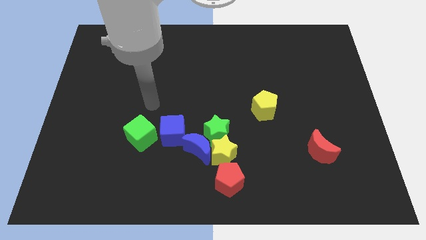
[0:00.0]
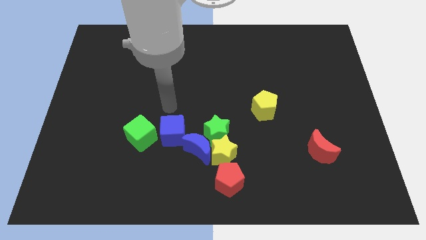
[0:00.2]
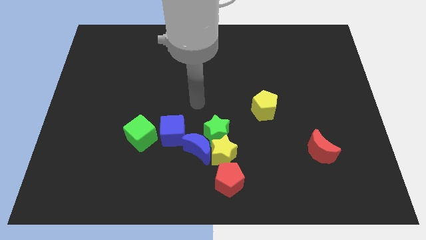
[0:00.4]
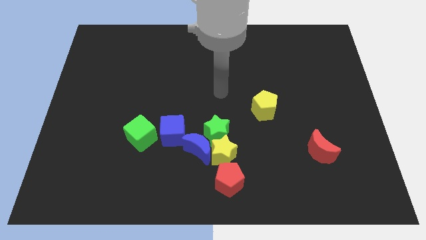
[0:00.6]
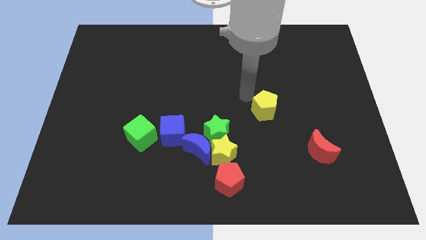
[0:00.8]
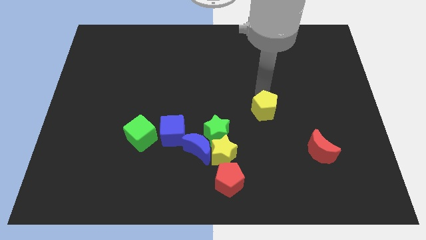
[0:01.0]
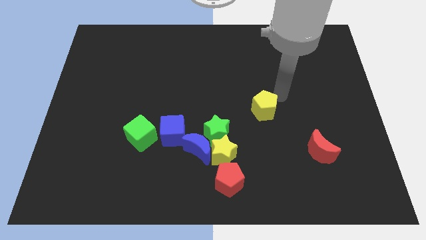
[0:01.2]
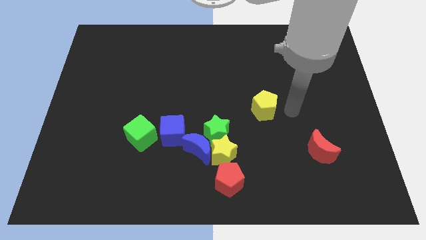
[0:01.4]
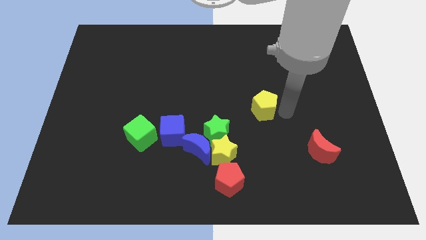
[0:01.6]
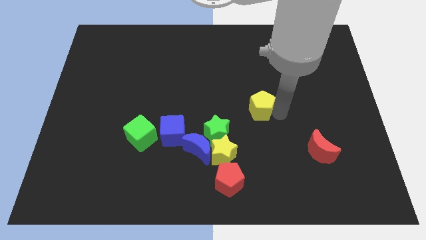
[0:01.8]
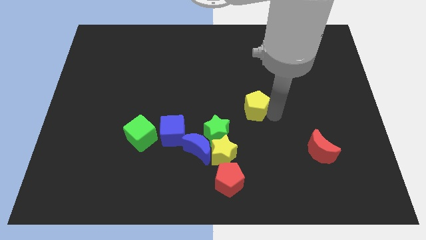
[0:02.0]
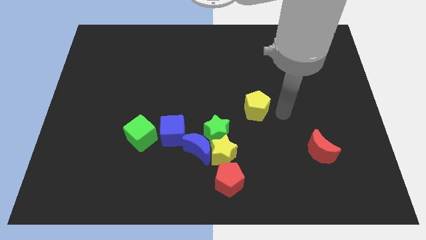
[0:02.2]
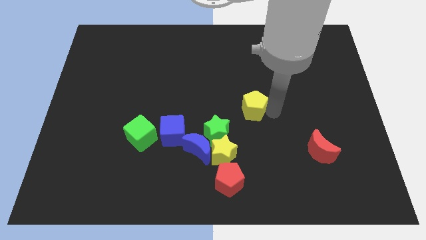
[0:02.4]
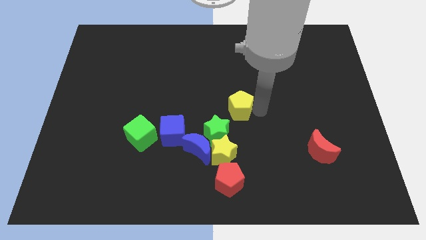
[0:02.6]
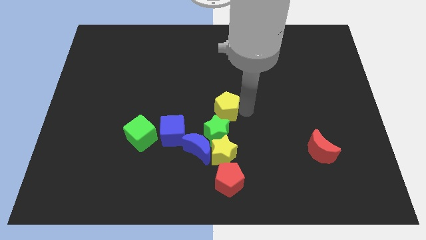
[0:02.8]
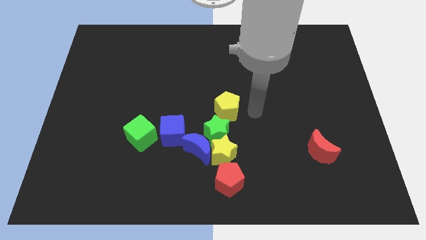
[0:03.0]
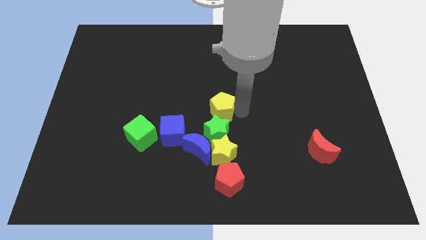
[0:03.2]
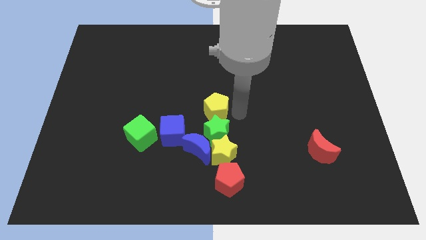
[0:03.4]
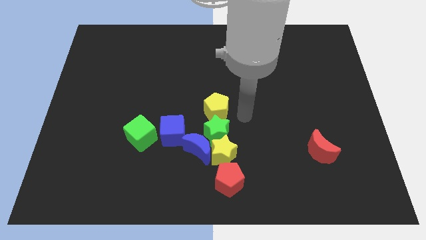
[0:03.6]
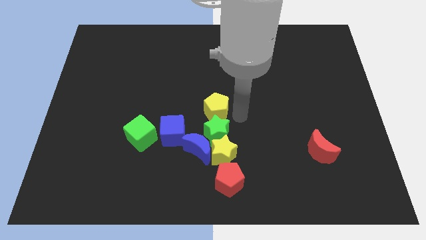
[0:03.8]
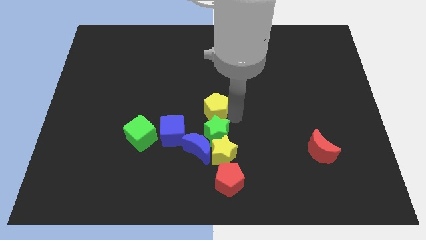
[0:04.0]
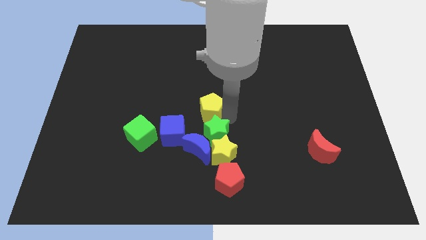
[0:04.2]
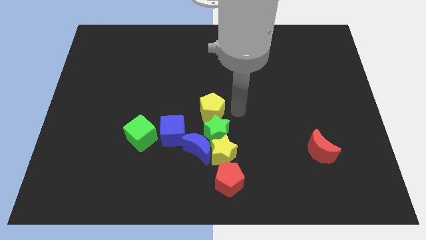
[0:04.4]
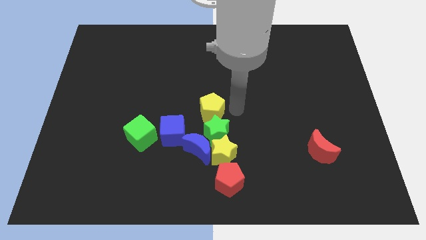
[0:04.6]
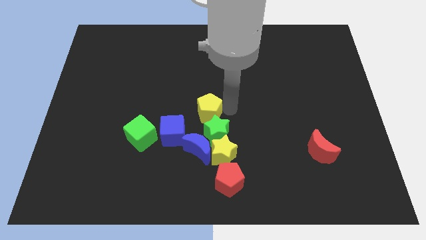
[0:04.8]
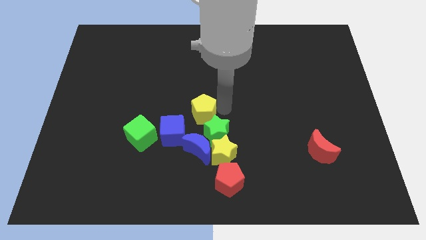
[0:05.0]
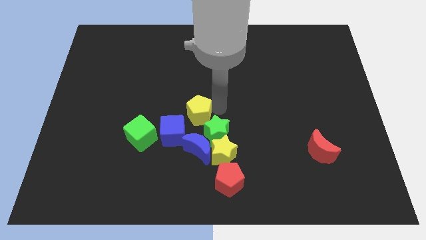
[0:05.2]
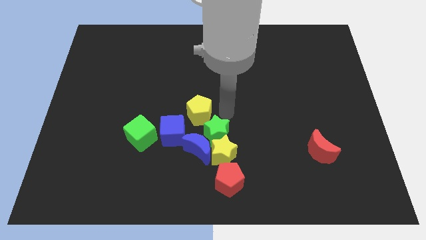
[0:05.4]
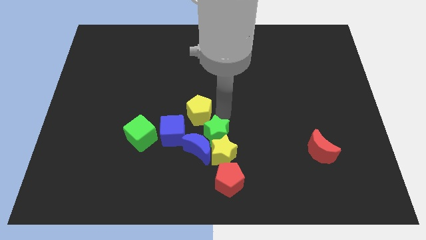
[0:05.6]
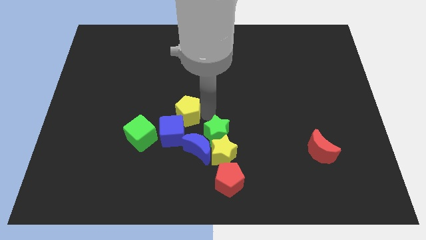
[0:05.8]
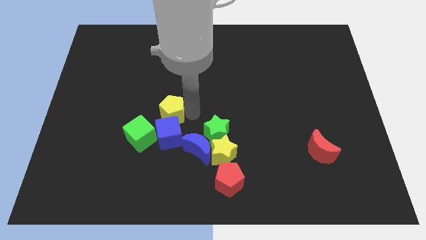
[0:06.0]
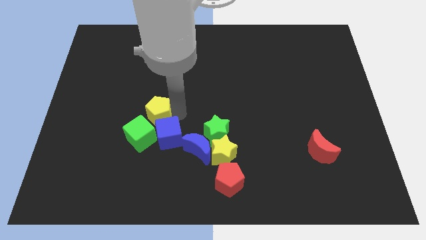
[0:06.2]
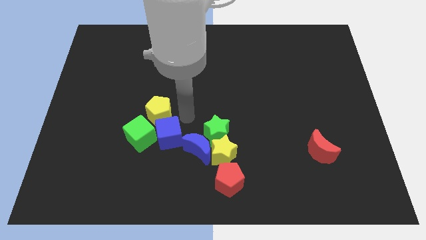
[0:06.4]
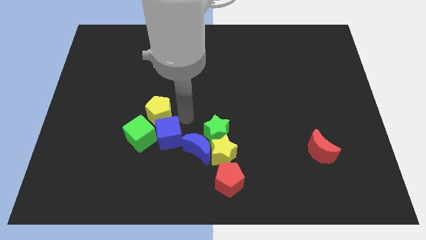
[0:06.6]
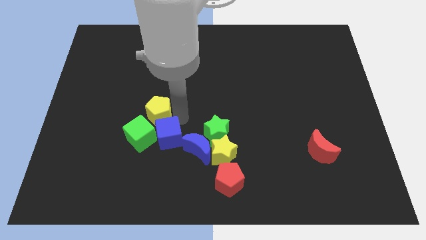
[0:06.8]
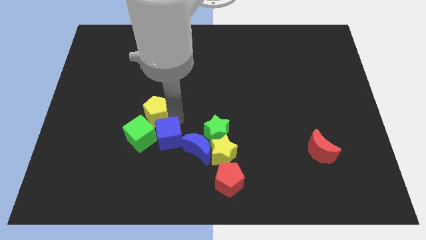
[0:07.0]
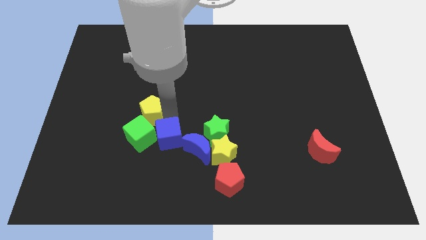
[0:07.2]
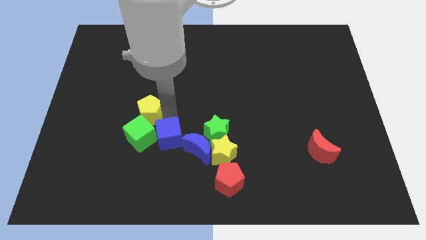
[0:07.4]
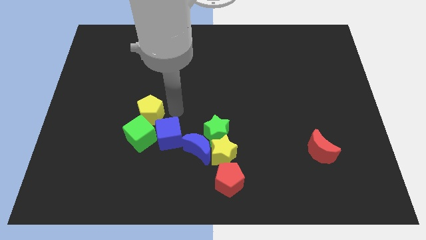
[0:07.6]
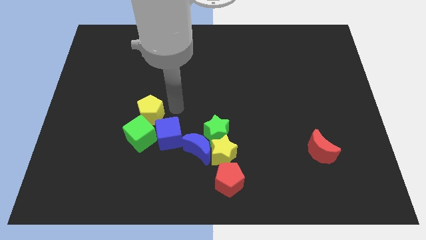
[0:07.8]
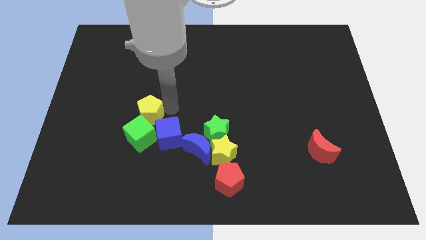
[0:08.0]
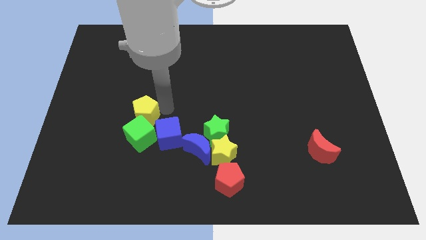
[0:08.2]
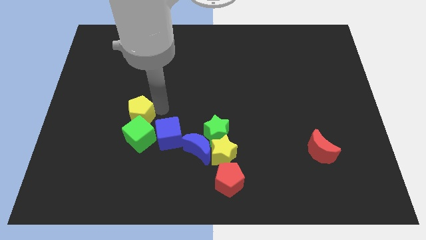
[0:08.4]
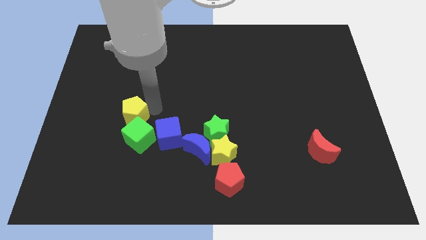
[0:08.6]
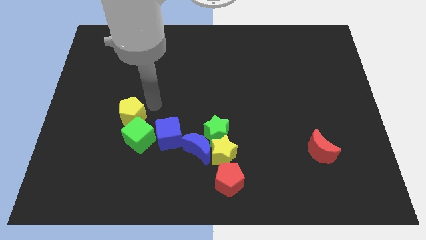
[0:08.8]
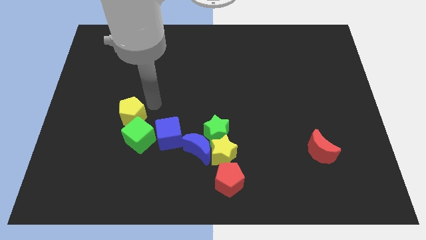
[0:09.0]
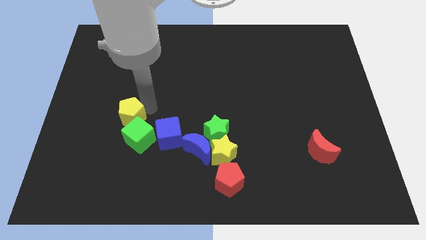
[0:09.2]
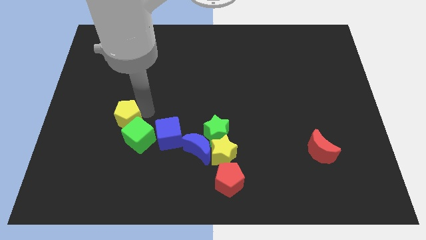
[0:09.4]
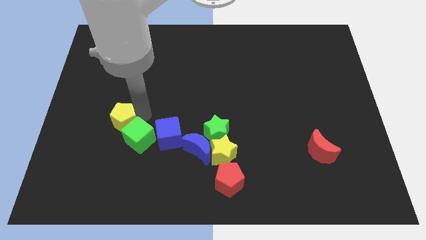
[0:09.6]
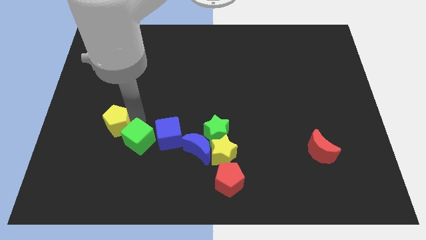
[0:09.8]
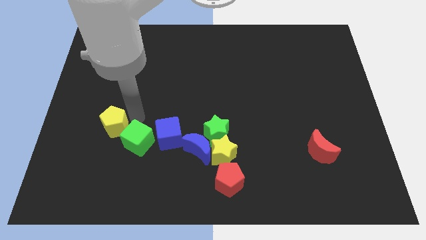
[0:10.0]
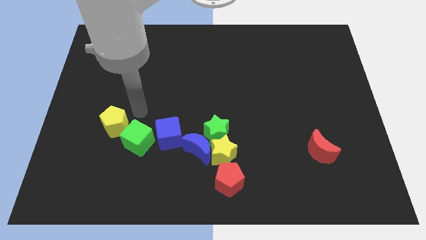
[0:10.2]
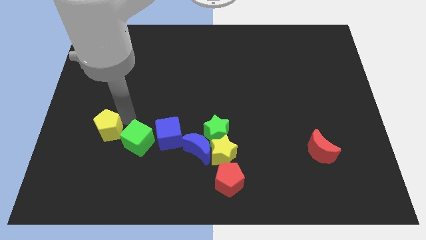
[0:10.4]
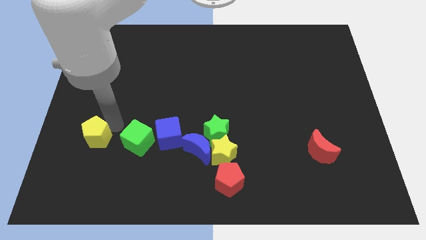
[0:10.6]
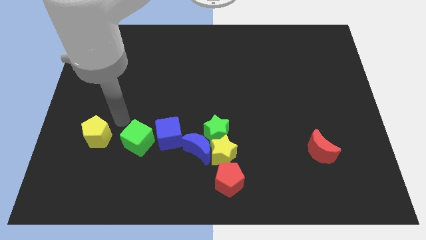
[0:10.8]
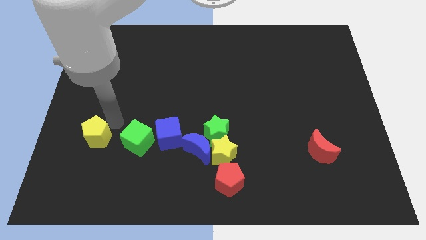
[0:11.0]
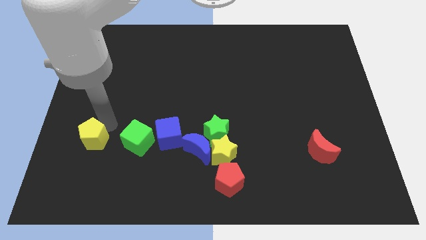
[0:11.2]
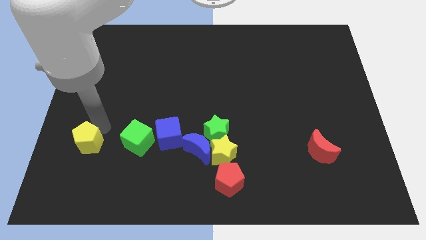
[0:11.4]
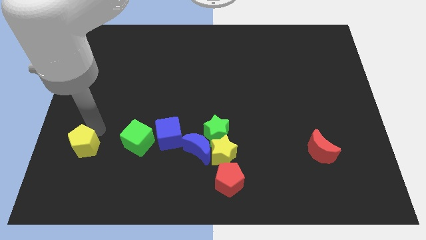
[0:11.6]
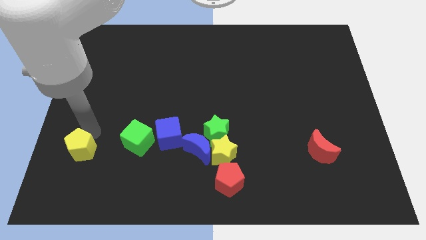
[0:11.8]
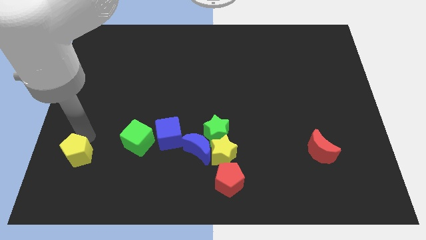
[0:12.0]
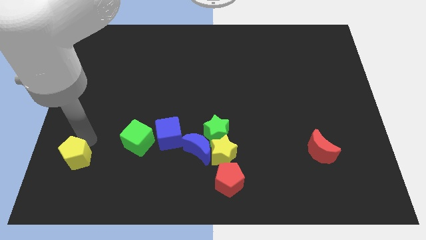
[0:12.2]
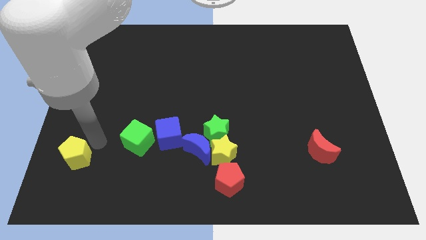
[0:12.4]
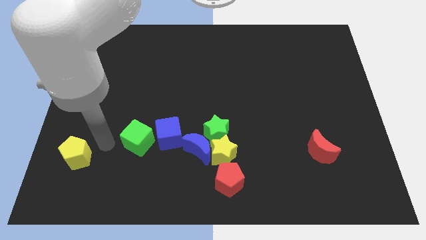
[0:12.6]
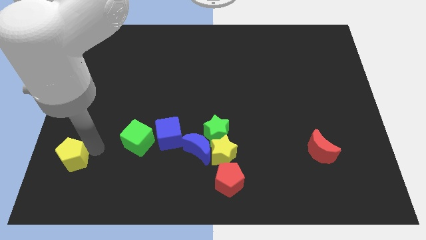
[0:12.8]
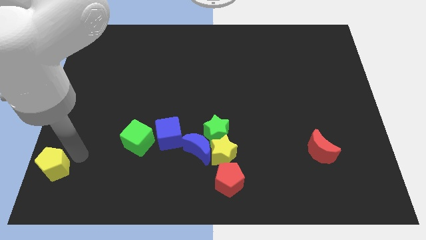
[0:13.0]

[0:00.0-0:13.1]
slide the yellow pentagon to the bottom left
